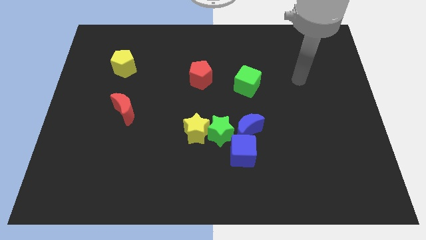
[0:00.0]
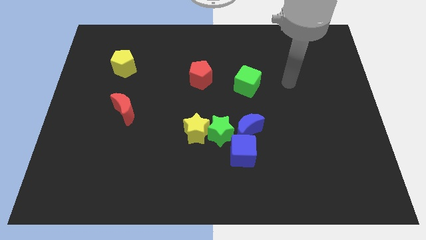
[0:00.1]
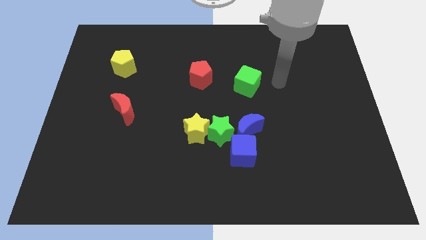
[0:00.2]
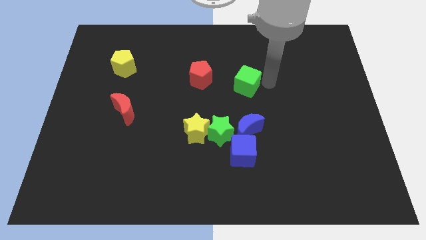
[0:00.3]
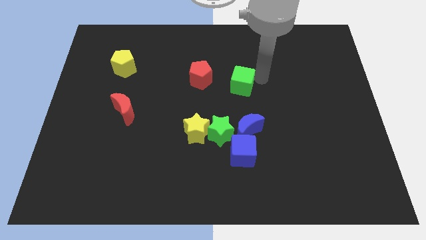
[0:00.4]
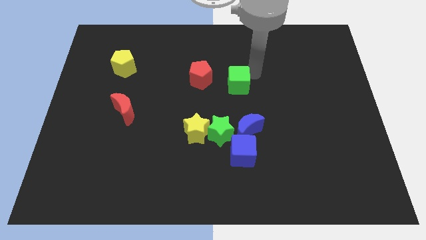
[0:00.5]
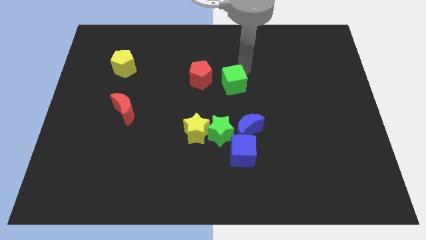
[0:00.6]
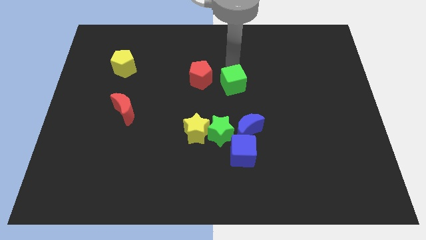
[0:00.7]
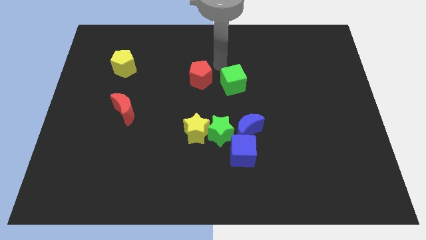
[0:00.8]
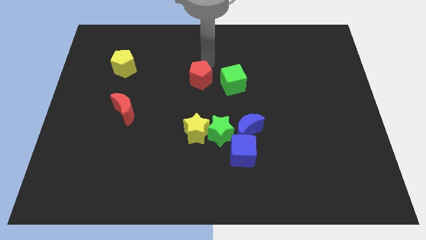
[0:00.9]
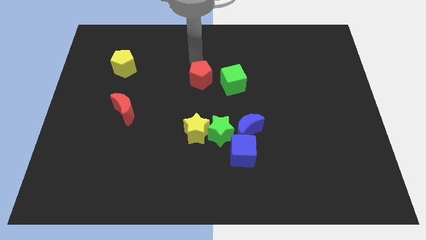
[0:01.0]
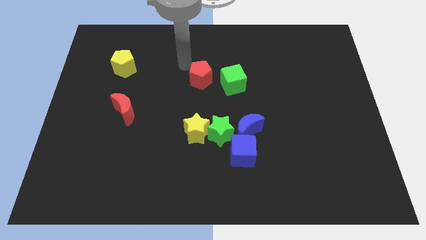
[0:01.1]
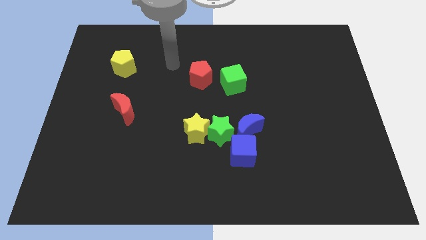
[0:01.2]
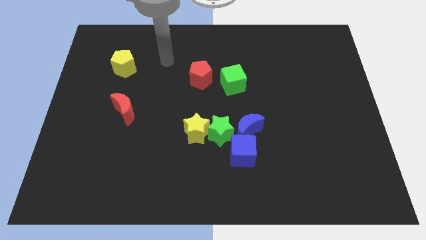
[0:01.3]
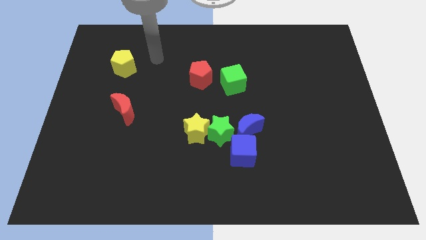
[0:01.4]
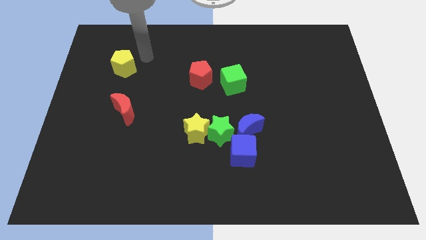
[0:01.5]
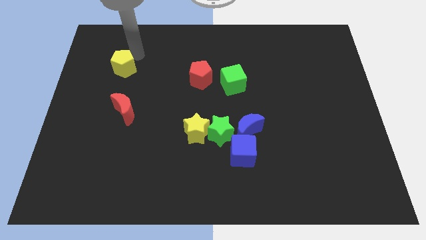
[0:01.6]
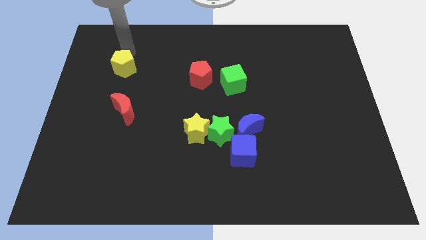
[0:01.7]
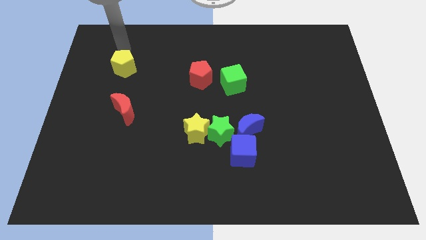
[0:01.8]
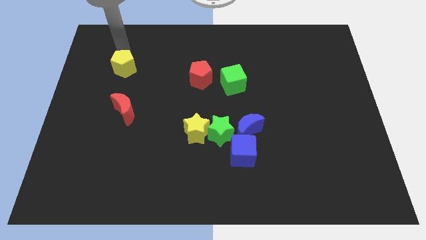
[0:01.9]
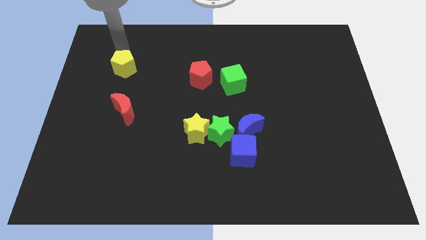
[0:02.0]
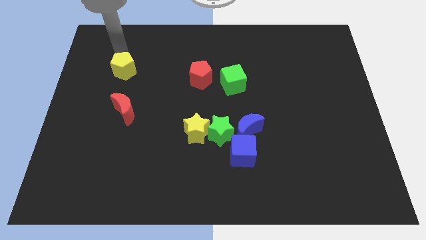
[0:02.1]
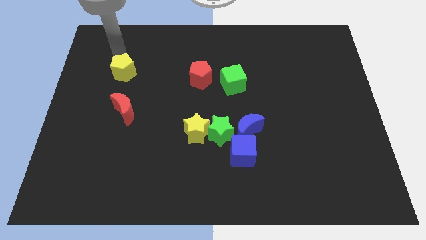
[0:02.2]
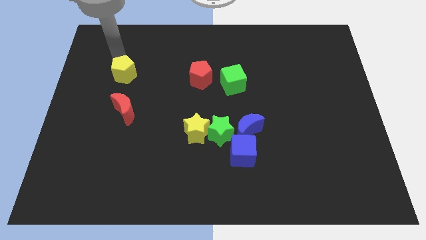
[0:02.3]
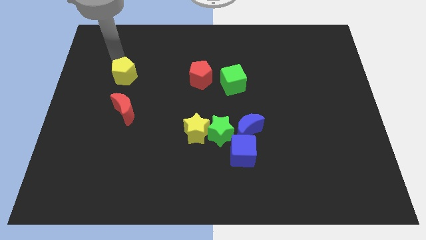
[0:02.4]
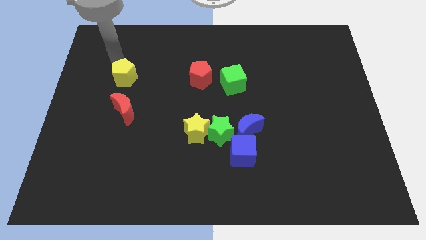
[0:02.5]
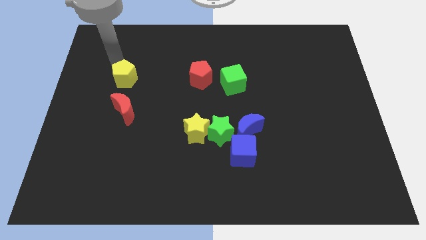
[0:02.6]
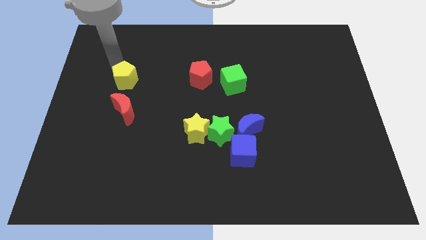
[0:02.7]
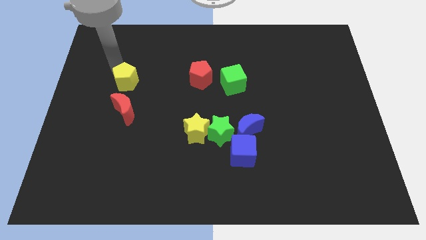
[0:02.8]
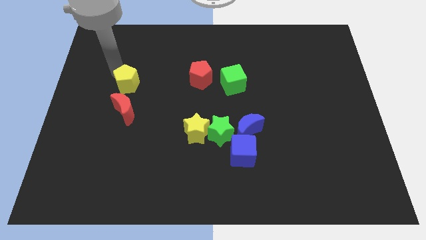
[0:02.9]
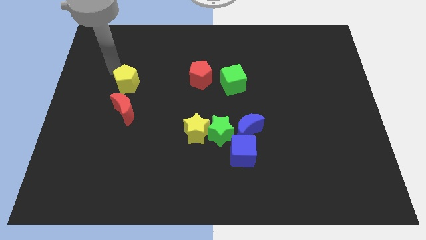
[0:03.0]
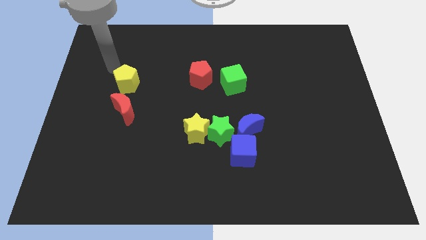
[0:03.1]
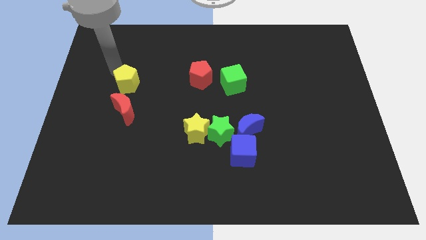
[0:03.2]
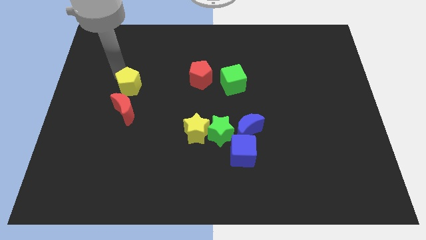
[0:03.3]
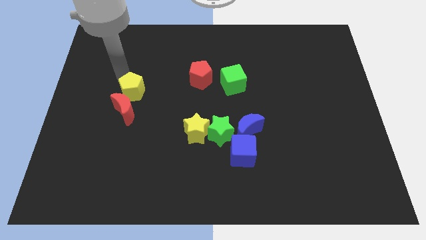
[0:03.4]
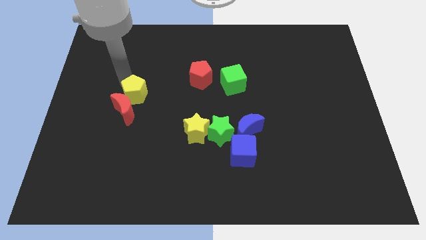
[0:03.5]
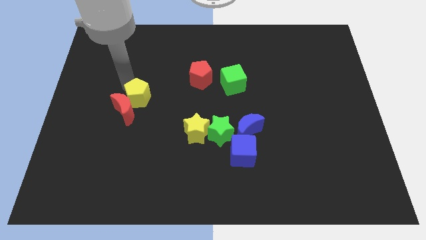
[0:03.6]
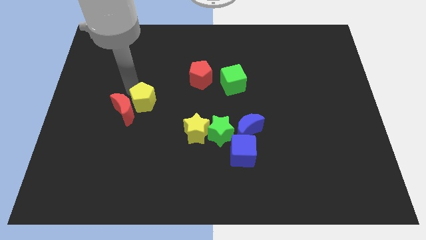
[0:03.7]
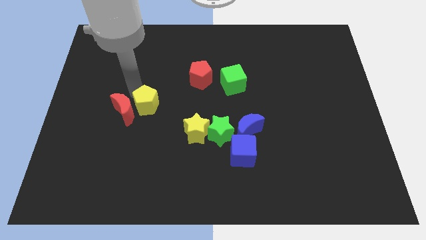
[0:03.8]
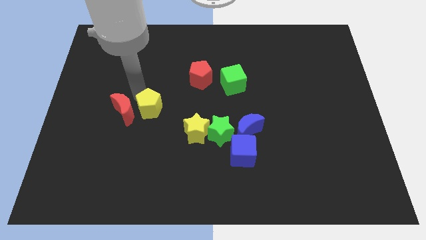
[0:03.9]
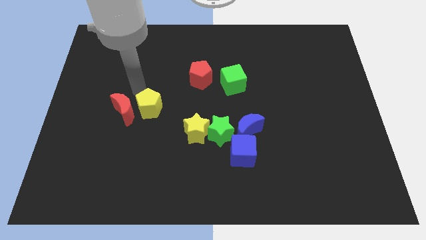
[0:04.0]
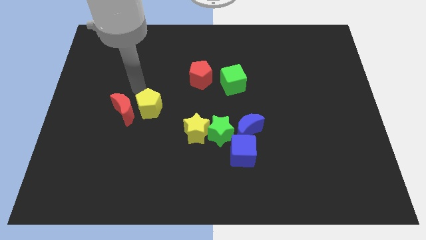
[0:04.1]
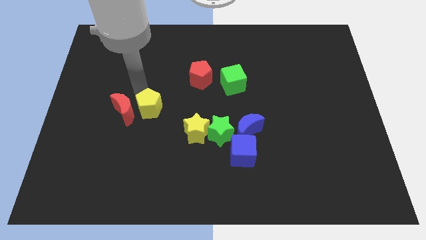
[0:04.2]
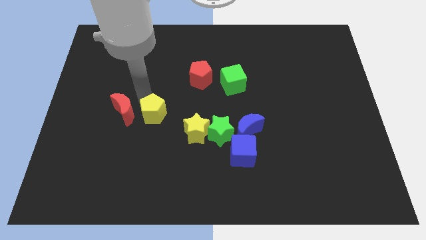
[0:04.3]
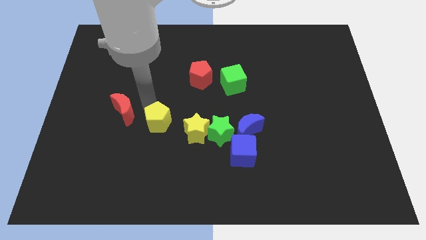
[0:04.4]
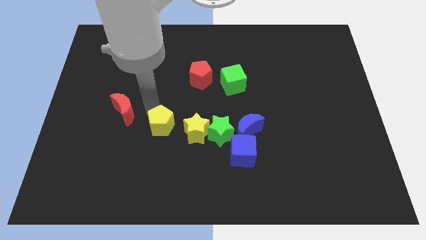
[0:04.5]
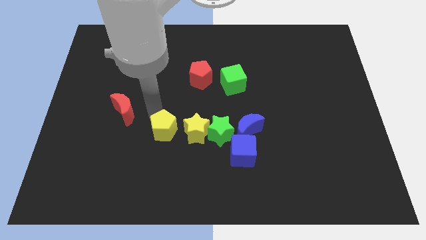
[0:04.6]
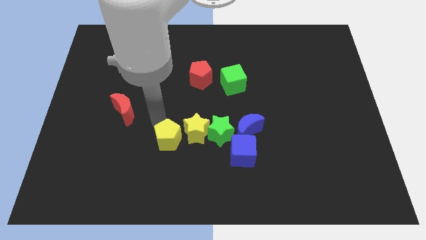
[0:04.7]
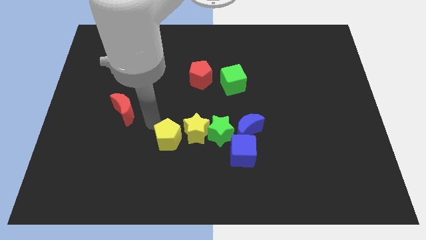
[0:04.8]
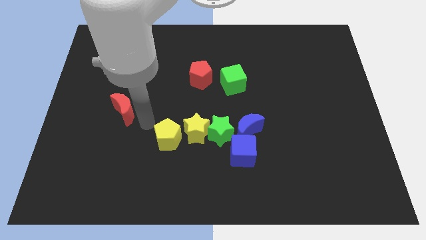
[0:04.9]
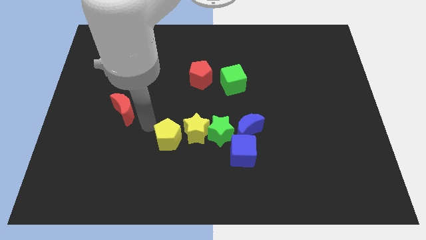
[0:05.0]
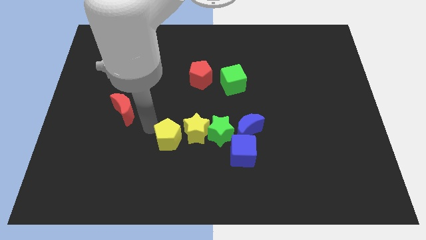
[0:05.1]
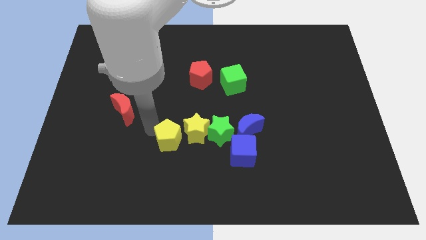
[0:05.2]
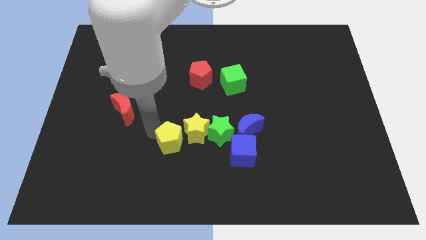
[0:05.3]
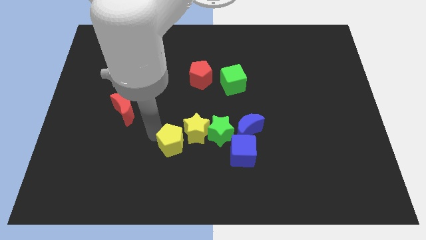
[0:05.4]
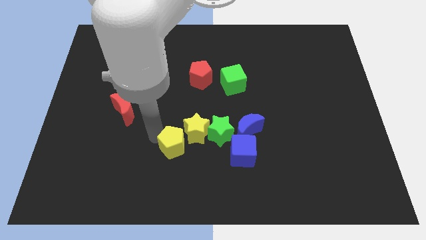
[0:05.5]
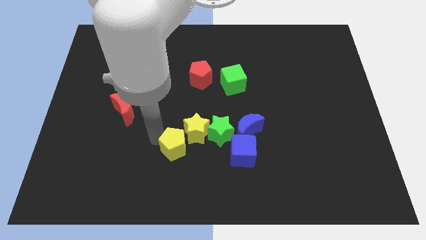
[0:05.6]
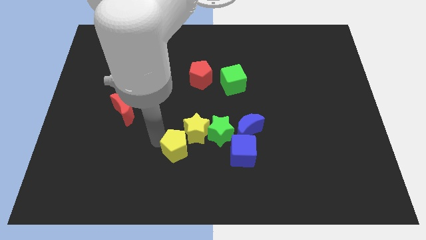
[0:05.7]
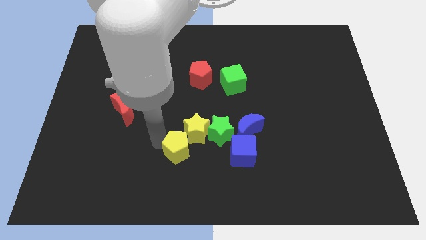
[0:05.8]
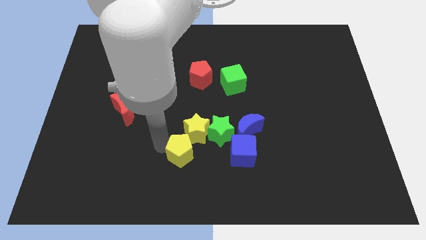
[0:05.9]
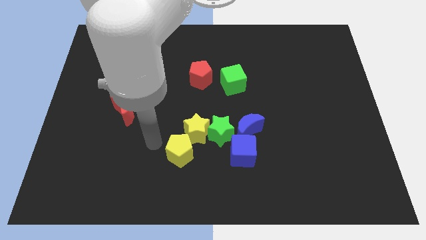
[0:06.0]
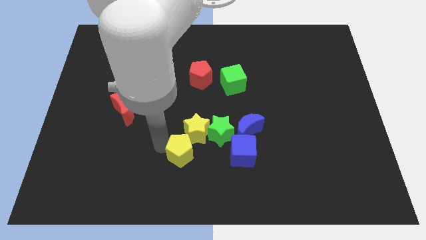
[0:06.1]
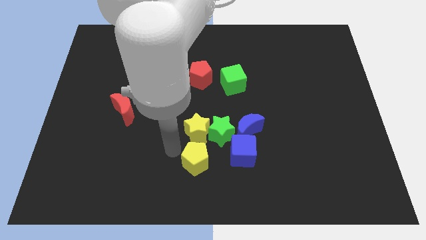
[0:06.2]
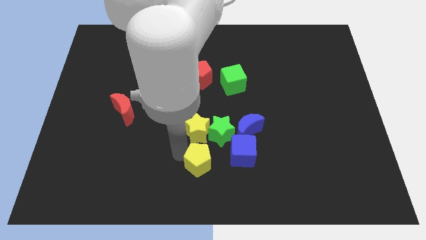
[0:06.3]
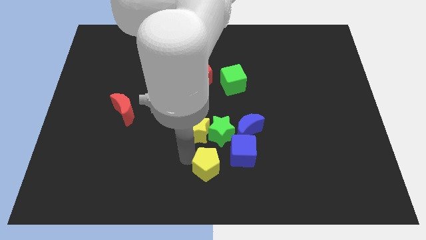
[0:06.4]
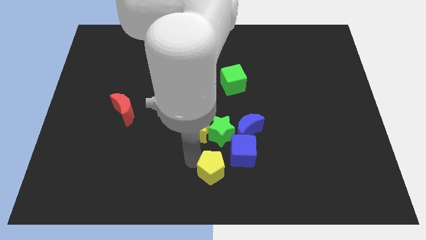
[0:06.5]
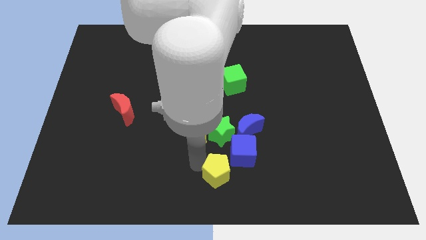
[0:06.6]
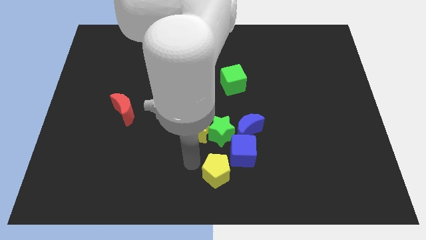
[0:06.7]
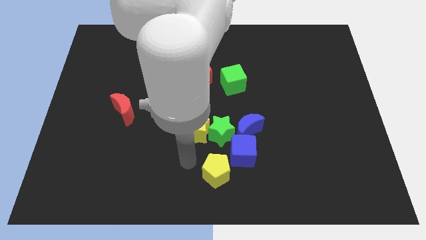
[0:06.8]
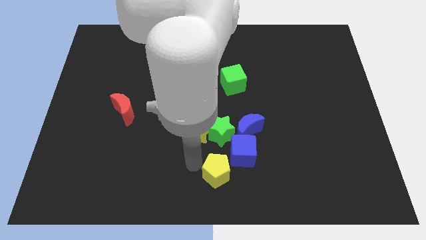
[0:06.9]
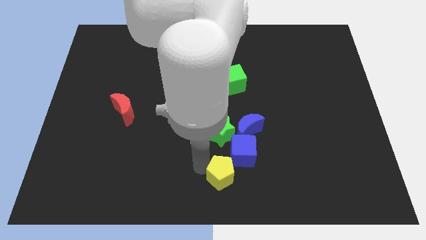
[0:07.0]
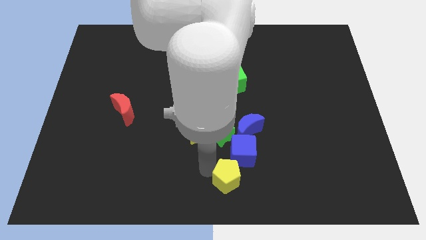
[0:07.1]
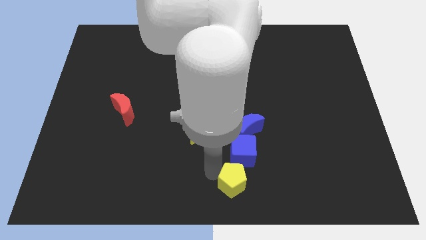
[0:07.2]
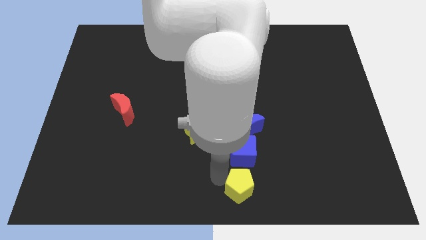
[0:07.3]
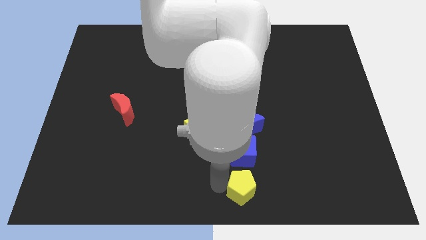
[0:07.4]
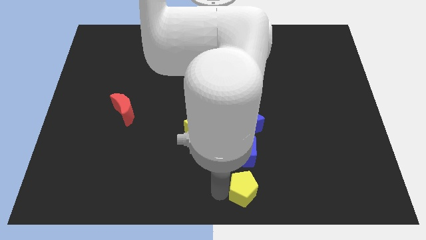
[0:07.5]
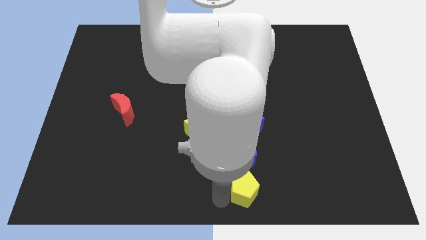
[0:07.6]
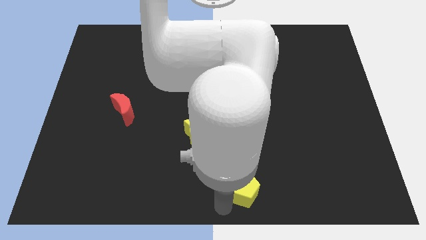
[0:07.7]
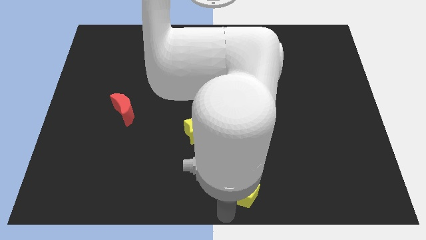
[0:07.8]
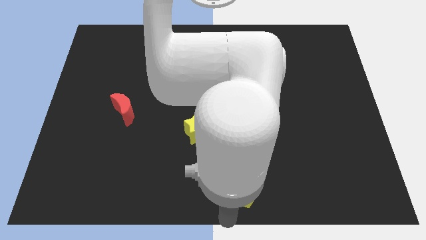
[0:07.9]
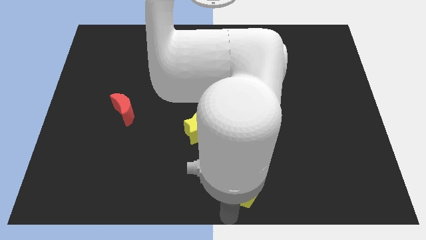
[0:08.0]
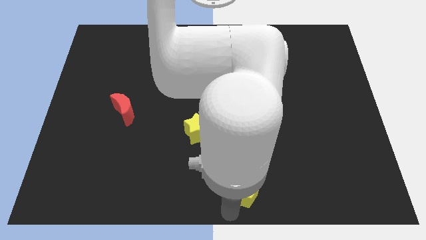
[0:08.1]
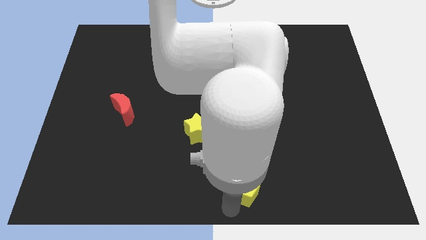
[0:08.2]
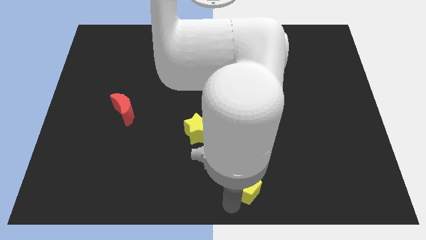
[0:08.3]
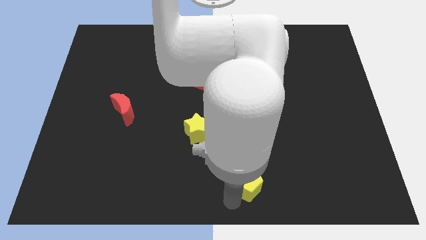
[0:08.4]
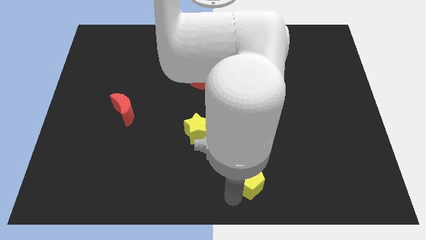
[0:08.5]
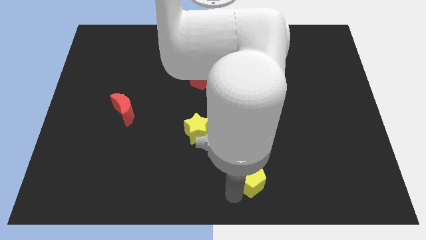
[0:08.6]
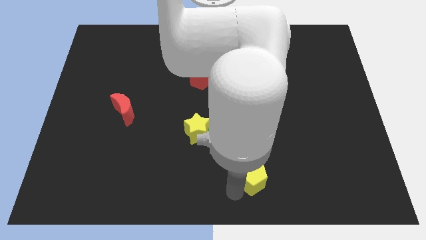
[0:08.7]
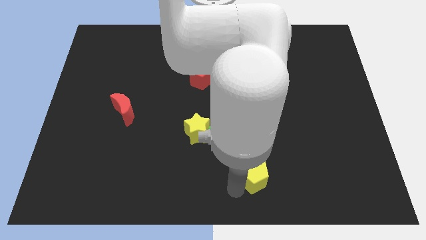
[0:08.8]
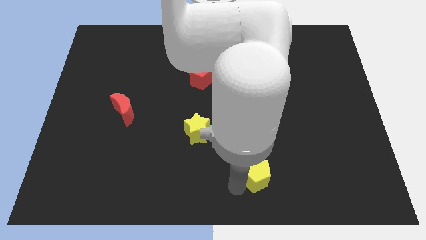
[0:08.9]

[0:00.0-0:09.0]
put the yellow pentagon diagonally down and to the right of the green star
